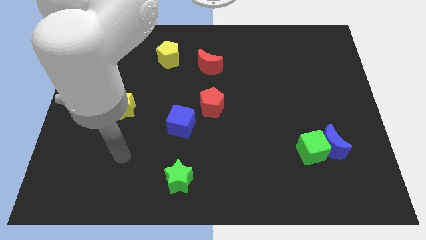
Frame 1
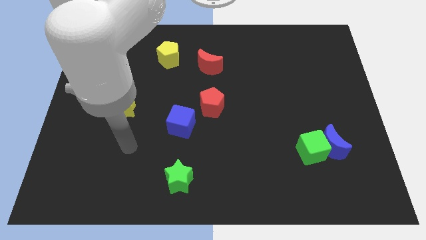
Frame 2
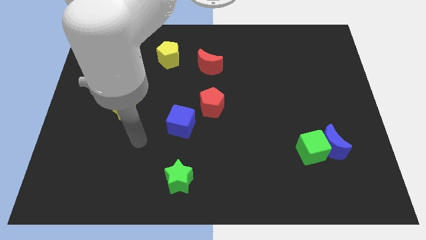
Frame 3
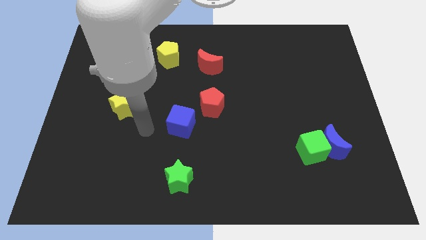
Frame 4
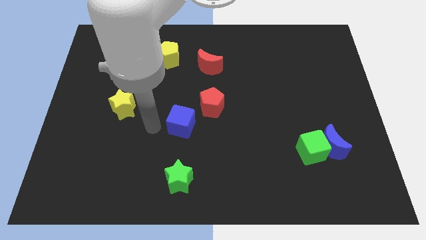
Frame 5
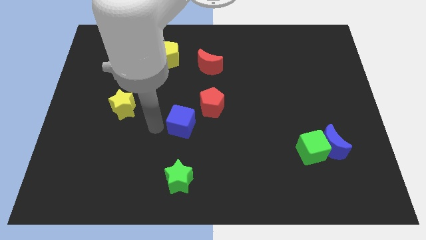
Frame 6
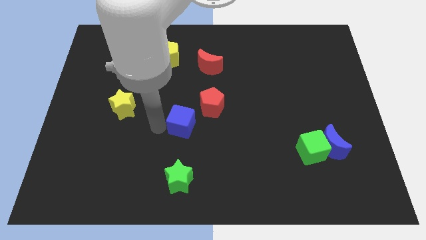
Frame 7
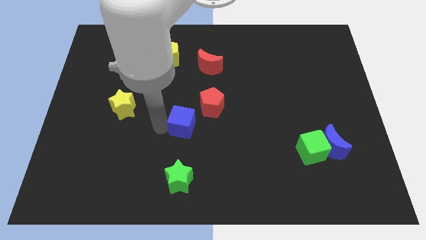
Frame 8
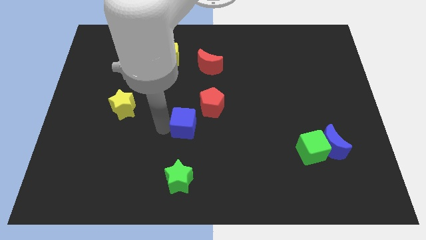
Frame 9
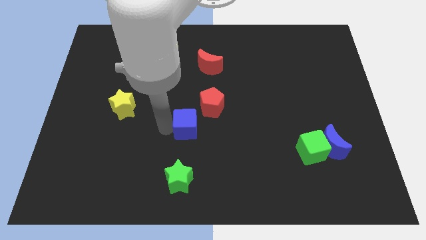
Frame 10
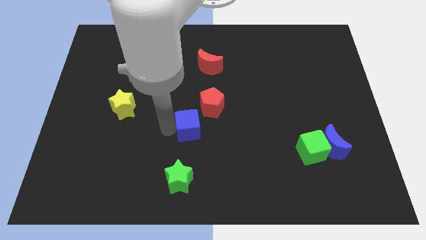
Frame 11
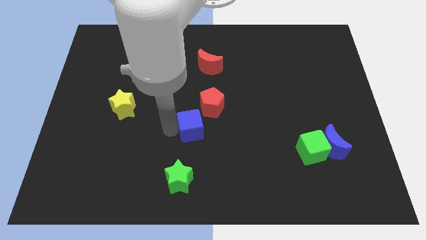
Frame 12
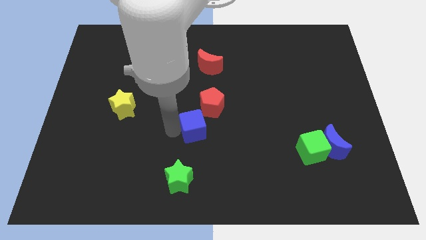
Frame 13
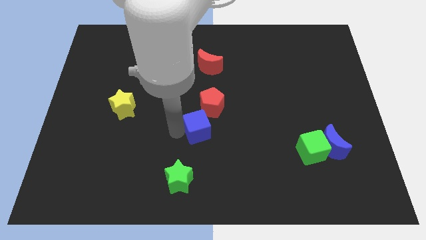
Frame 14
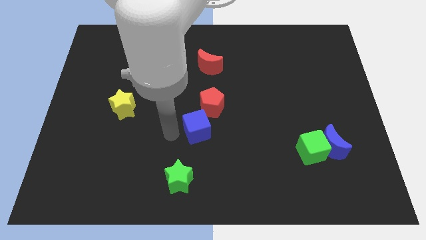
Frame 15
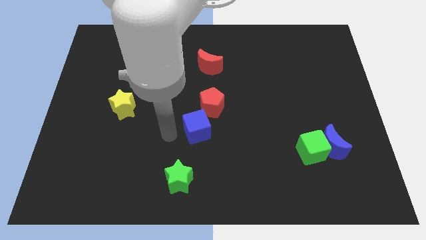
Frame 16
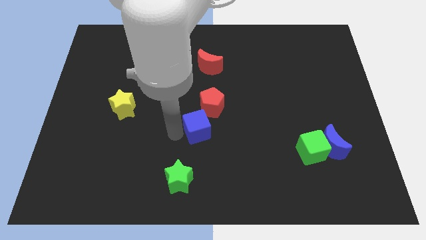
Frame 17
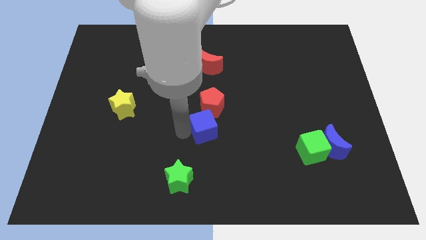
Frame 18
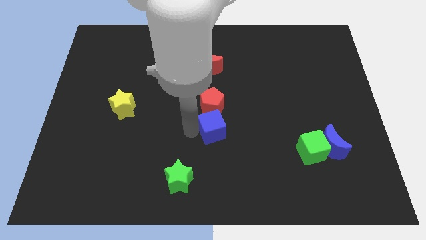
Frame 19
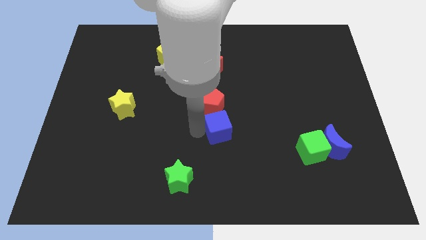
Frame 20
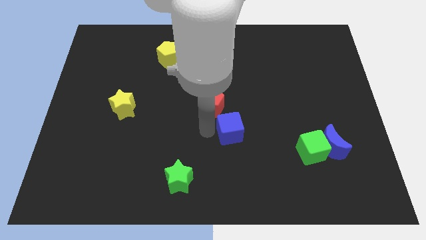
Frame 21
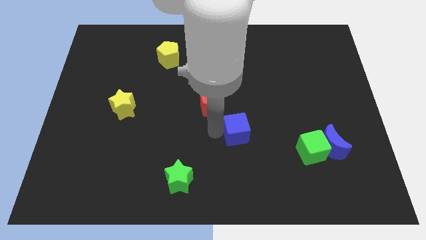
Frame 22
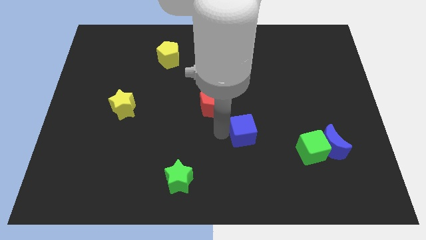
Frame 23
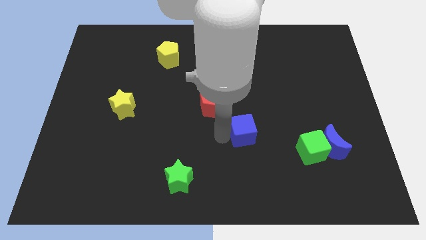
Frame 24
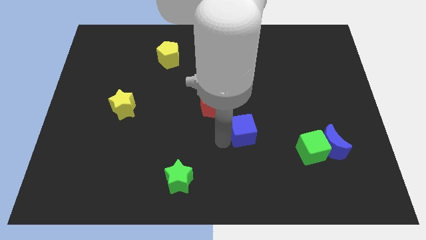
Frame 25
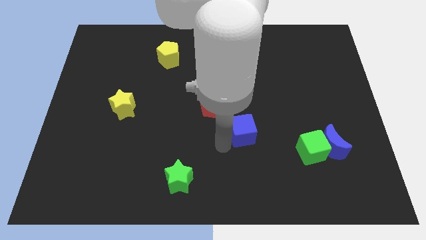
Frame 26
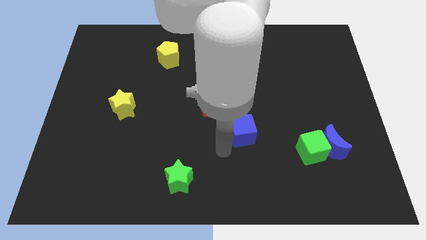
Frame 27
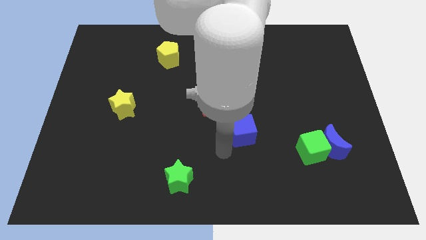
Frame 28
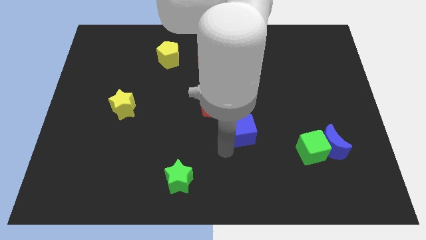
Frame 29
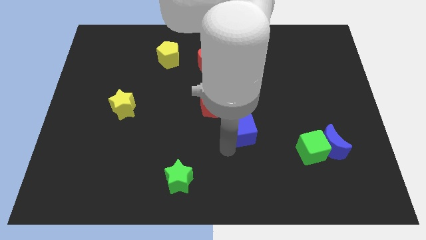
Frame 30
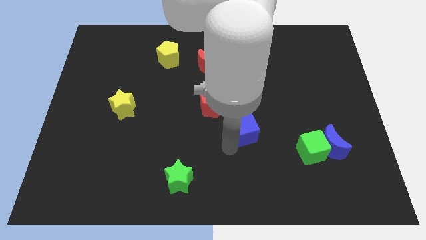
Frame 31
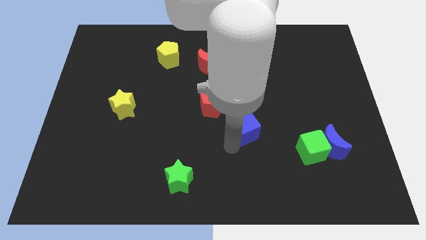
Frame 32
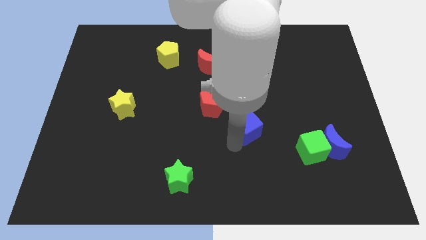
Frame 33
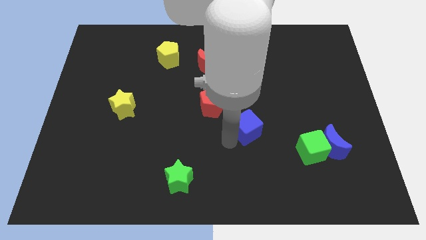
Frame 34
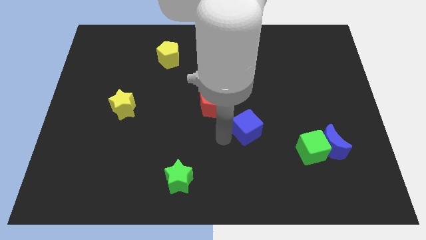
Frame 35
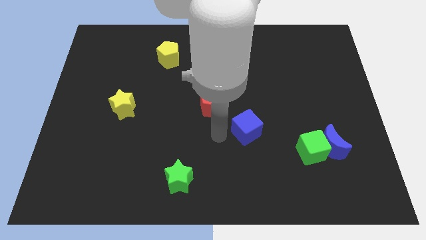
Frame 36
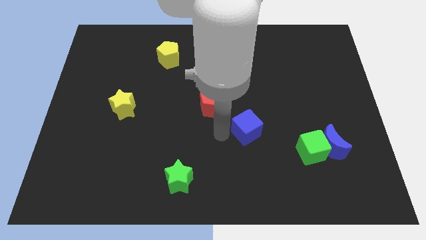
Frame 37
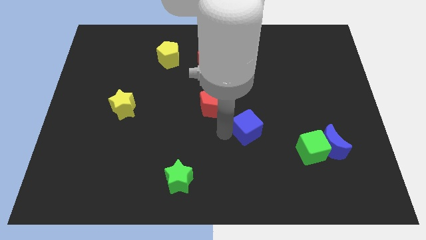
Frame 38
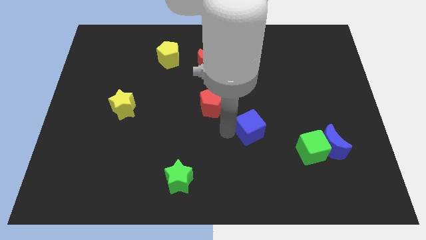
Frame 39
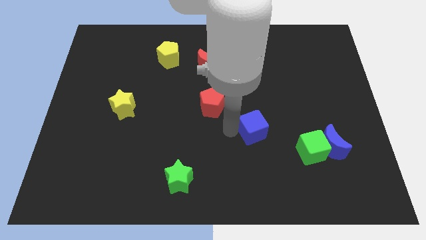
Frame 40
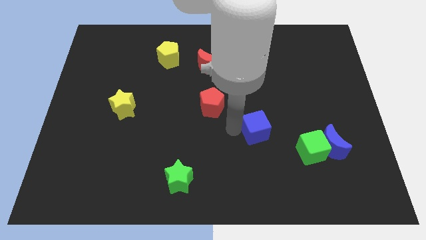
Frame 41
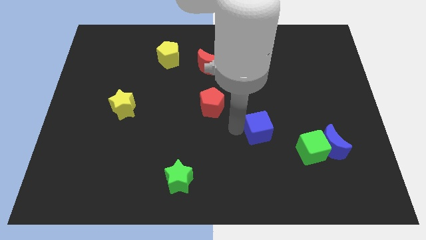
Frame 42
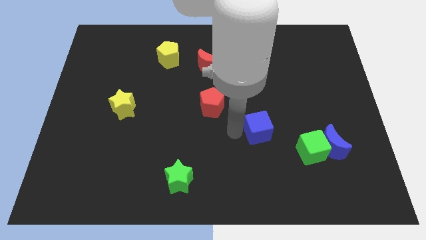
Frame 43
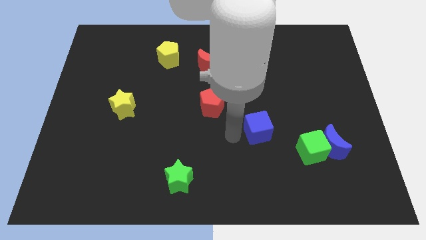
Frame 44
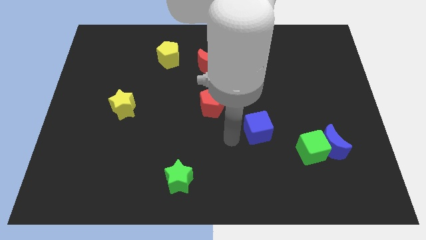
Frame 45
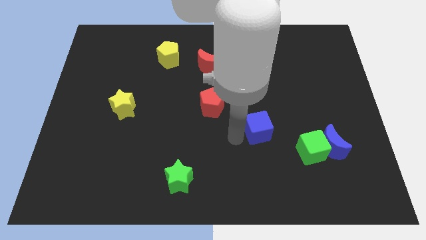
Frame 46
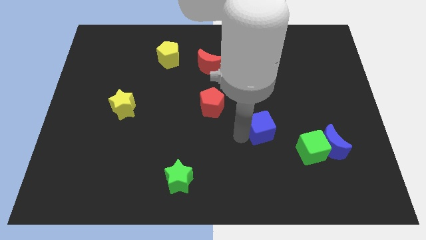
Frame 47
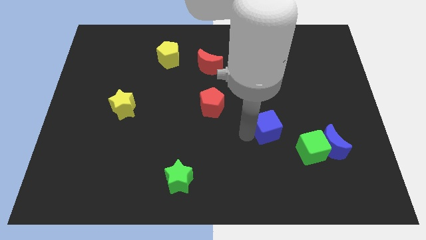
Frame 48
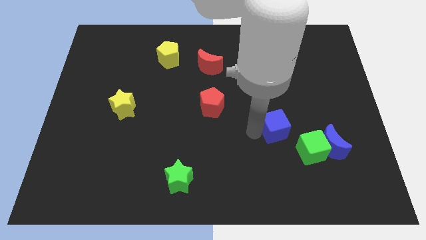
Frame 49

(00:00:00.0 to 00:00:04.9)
slide the blue cube to the right

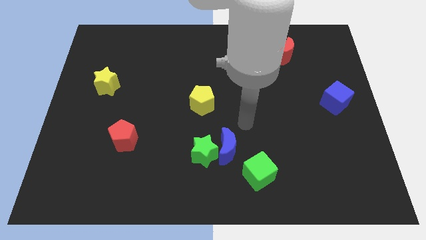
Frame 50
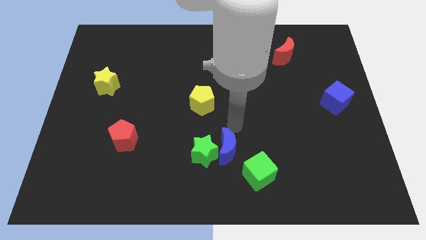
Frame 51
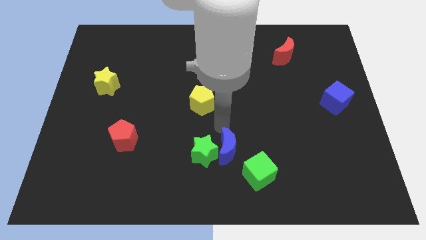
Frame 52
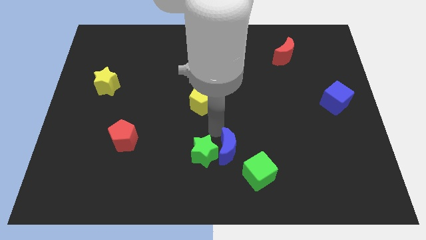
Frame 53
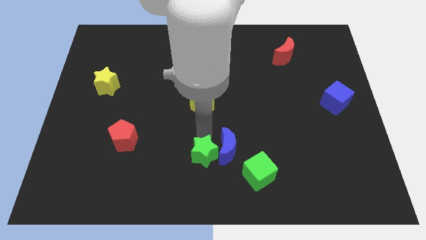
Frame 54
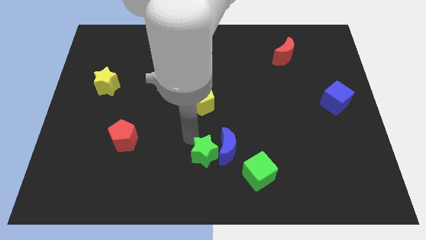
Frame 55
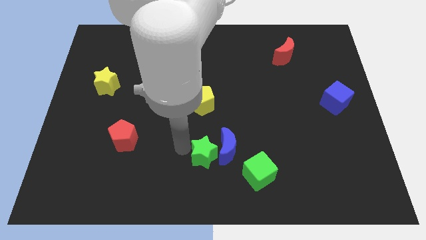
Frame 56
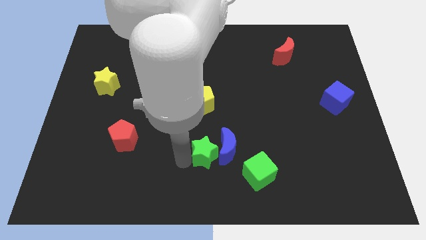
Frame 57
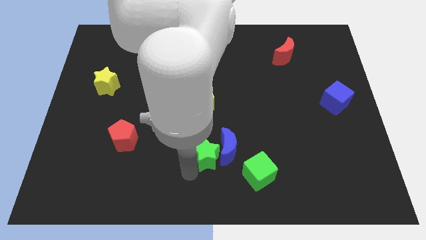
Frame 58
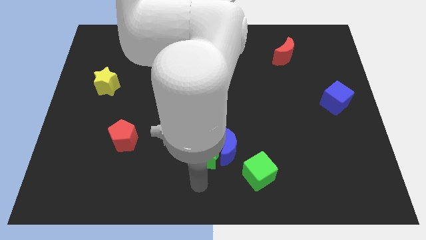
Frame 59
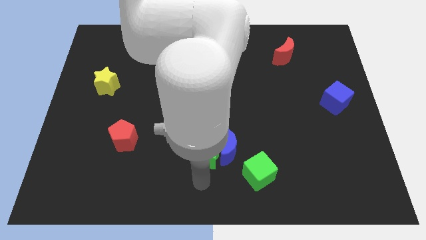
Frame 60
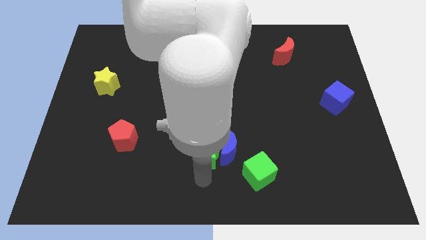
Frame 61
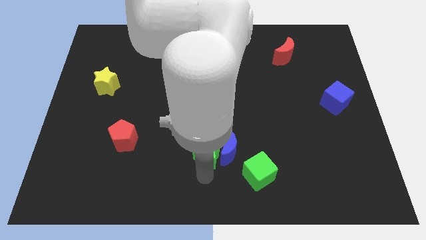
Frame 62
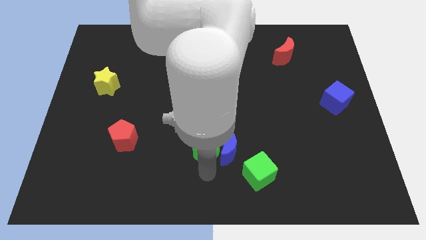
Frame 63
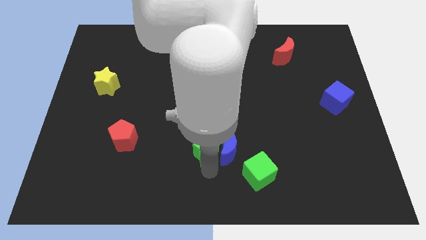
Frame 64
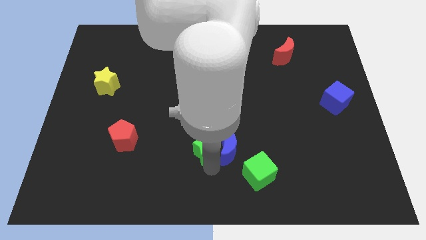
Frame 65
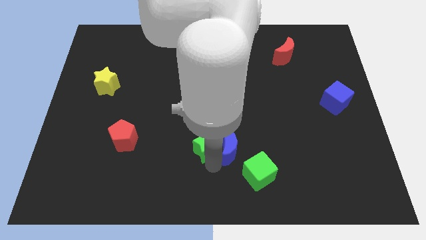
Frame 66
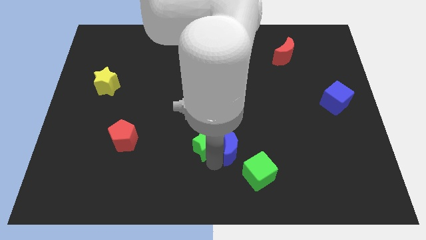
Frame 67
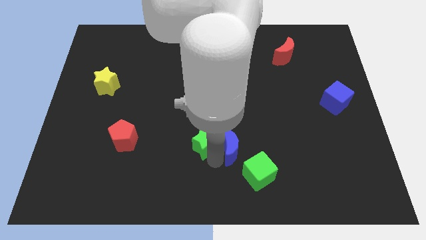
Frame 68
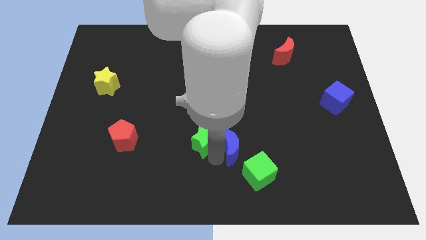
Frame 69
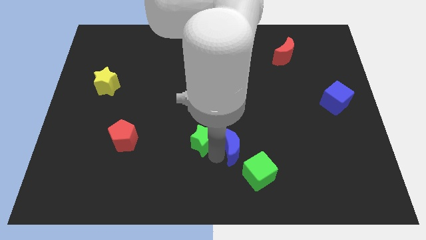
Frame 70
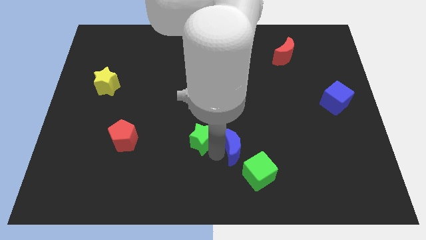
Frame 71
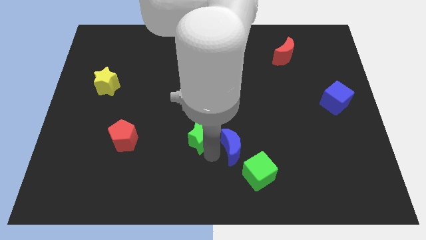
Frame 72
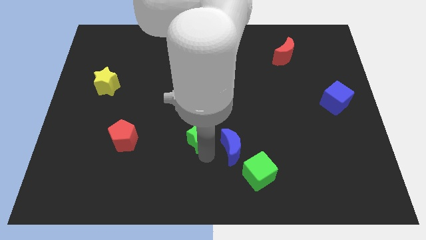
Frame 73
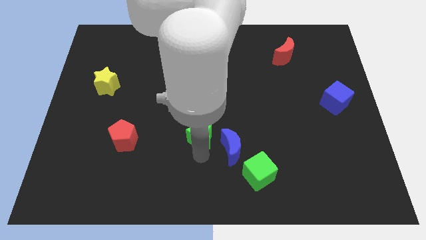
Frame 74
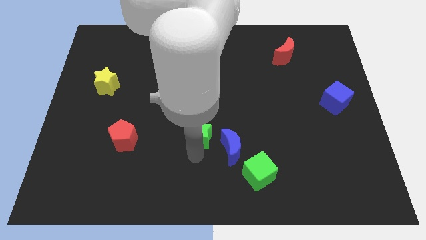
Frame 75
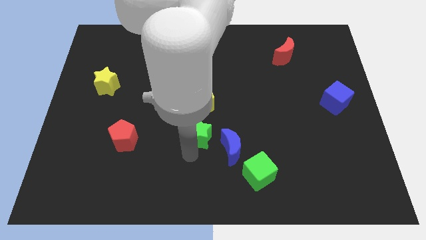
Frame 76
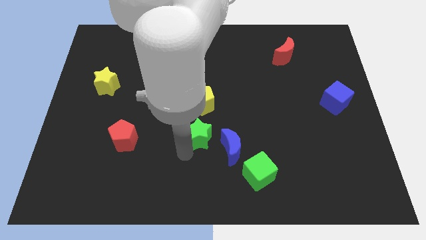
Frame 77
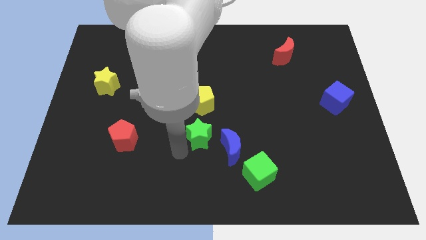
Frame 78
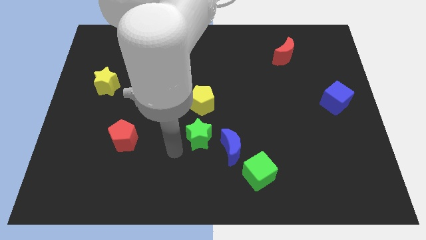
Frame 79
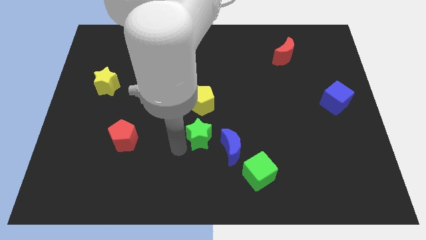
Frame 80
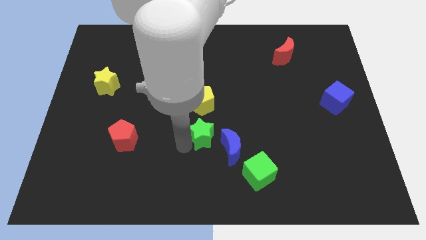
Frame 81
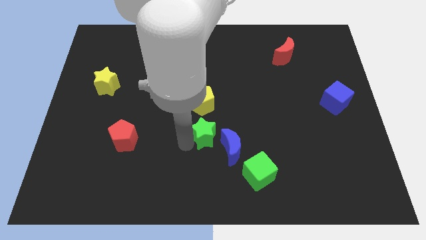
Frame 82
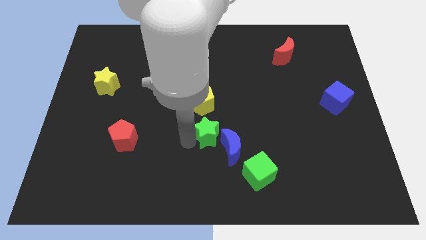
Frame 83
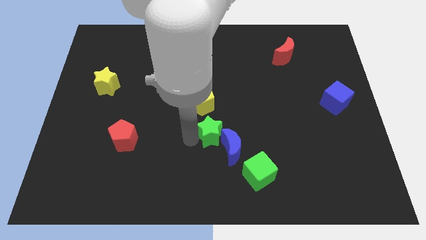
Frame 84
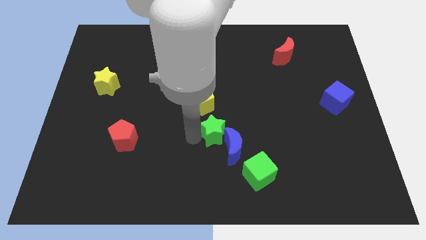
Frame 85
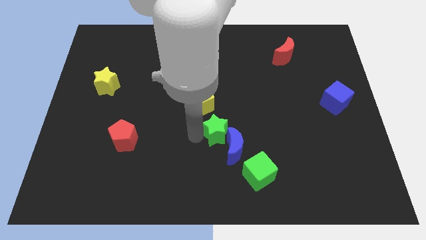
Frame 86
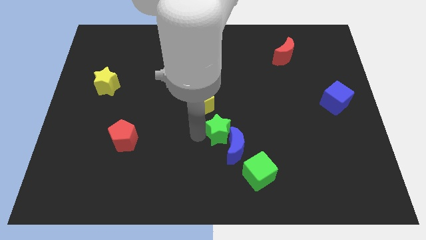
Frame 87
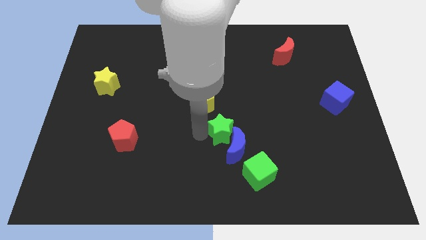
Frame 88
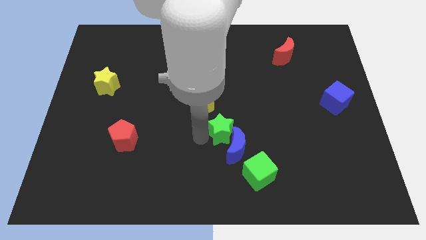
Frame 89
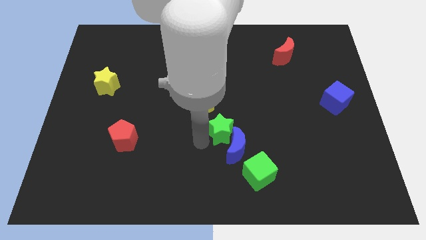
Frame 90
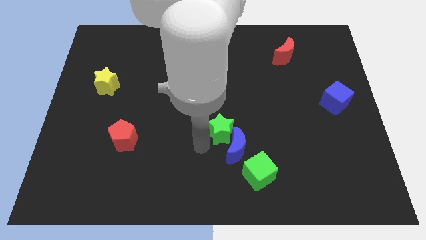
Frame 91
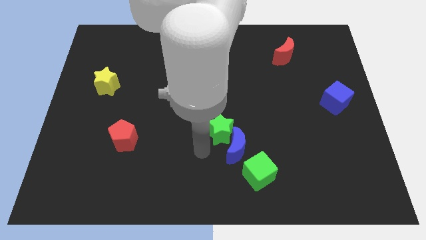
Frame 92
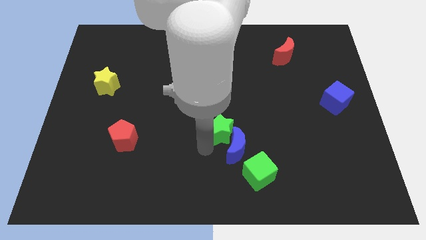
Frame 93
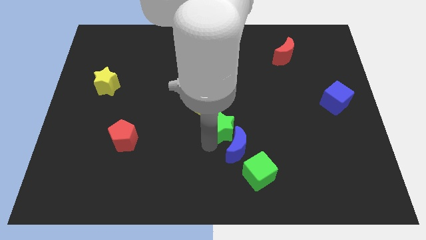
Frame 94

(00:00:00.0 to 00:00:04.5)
move the green star upwards and to the right diagonally a little bit
